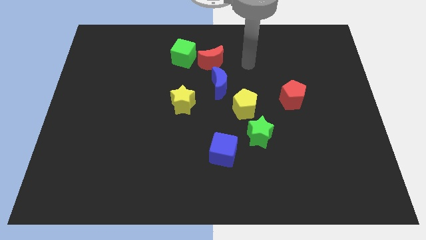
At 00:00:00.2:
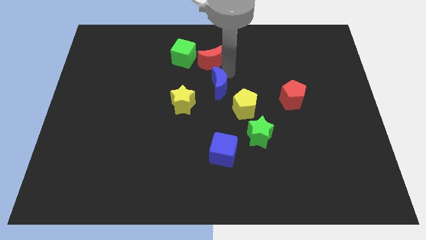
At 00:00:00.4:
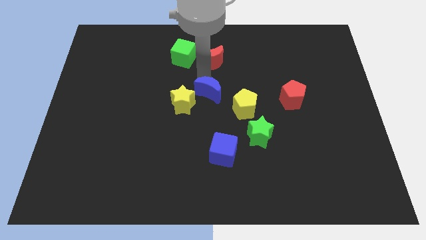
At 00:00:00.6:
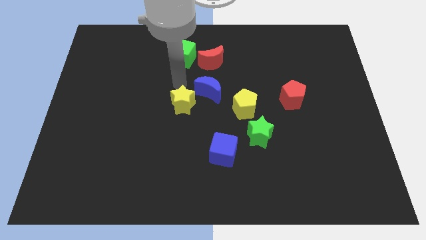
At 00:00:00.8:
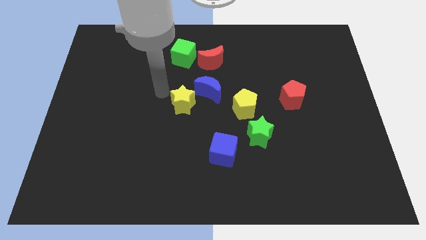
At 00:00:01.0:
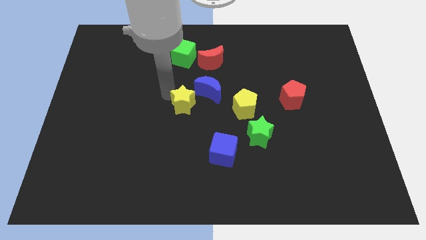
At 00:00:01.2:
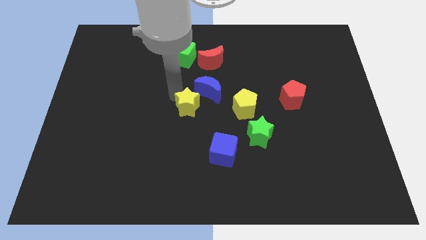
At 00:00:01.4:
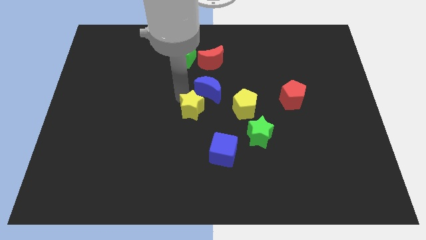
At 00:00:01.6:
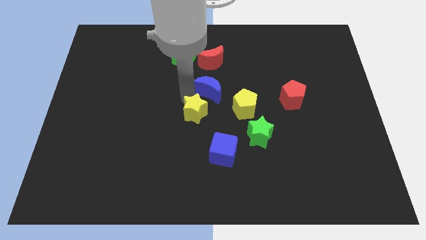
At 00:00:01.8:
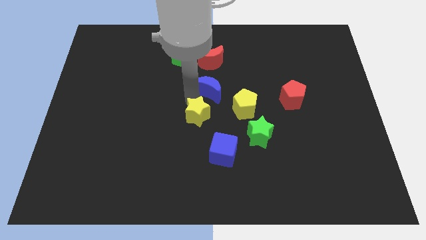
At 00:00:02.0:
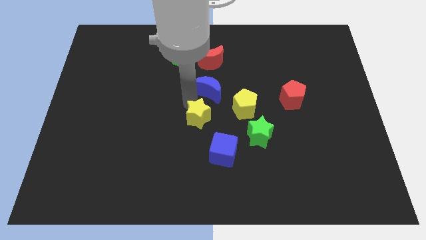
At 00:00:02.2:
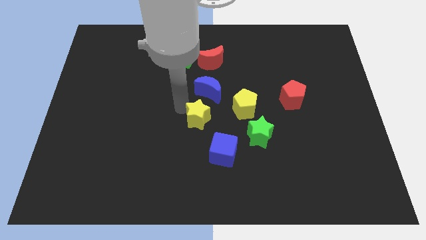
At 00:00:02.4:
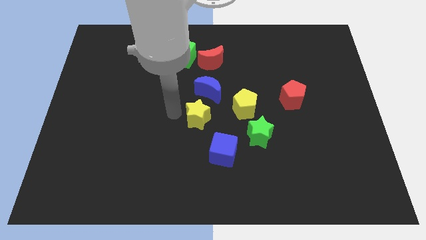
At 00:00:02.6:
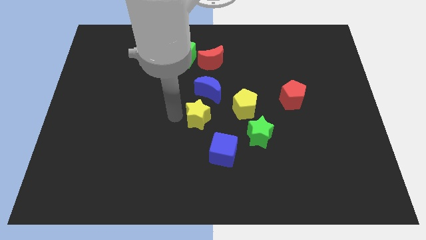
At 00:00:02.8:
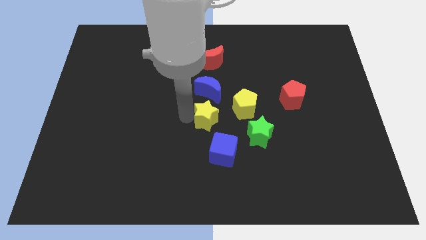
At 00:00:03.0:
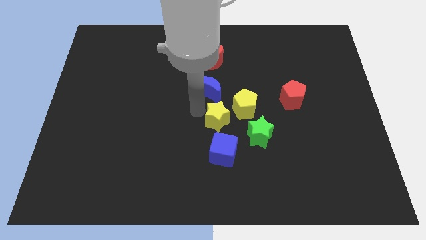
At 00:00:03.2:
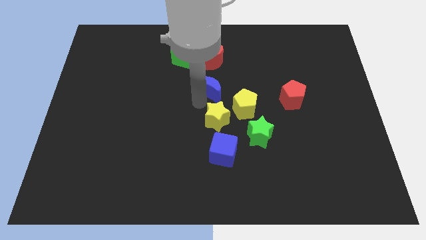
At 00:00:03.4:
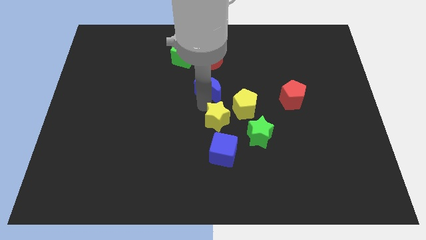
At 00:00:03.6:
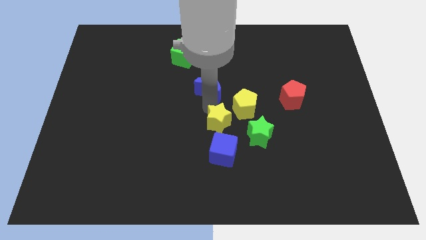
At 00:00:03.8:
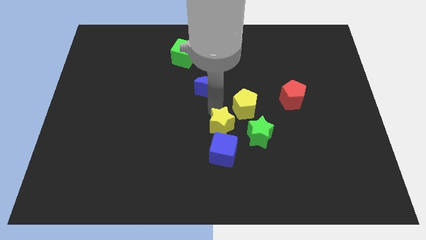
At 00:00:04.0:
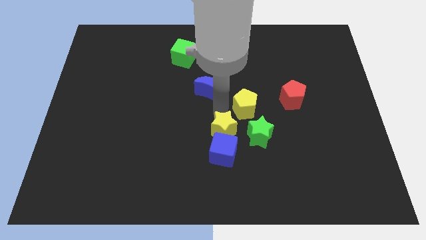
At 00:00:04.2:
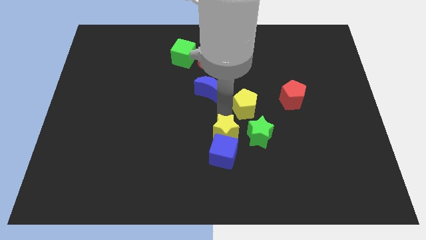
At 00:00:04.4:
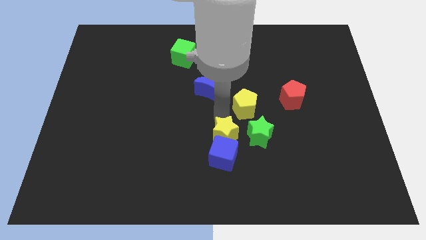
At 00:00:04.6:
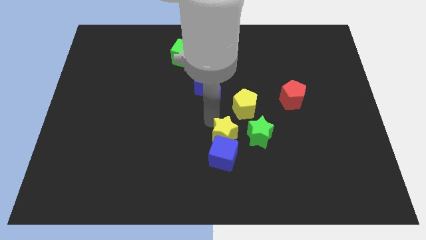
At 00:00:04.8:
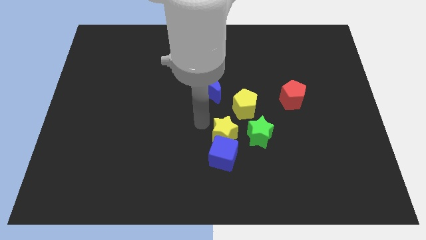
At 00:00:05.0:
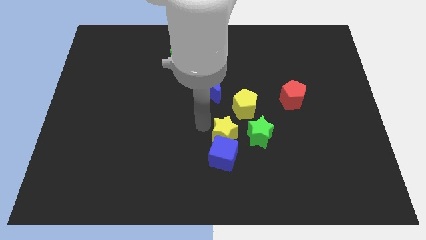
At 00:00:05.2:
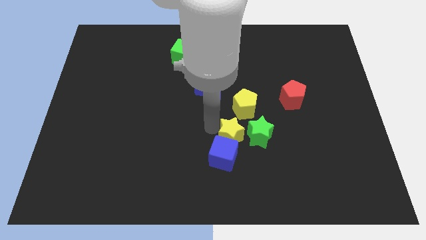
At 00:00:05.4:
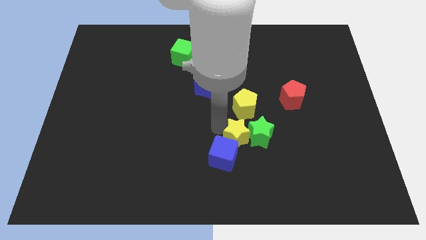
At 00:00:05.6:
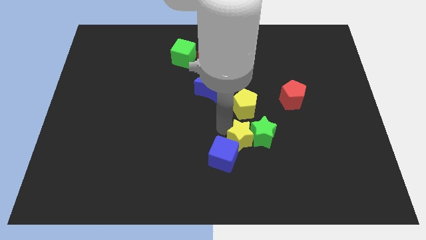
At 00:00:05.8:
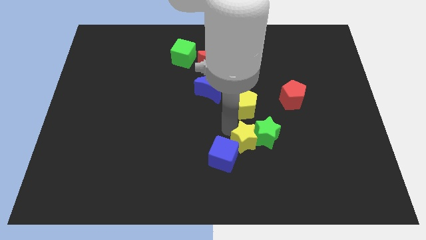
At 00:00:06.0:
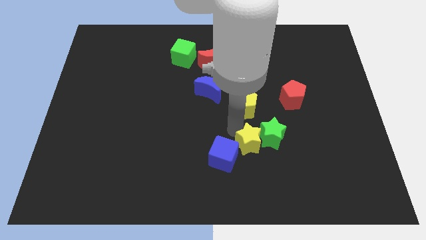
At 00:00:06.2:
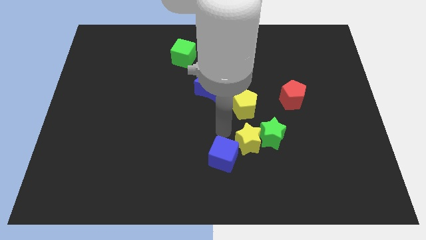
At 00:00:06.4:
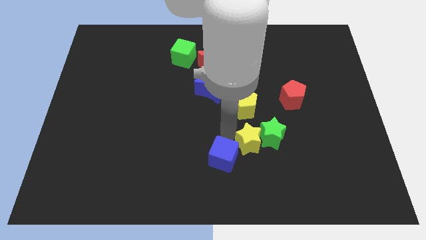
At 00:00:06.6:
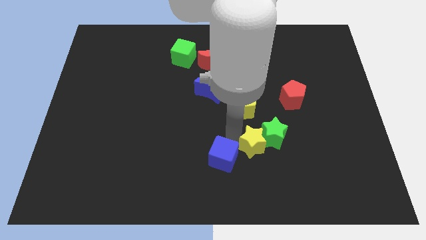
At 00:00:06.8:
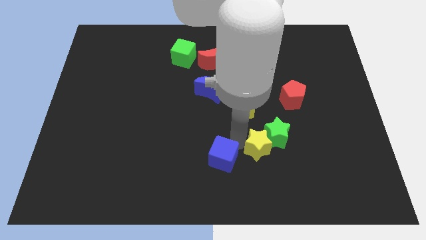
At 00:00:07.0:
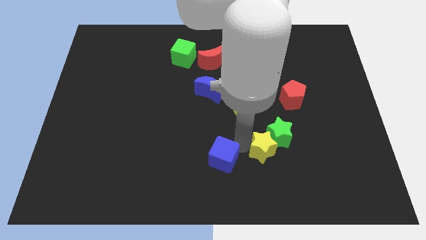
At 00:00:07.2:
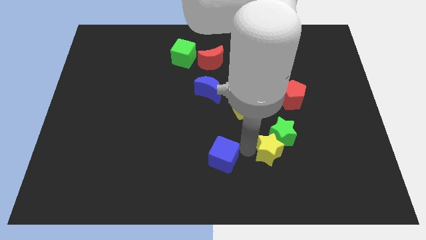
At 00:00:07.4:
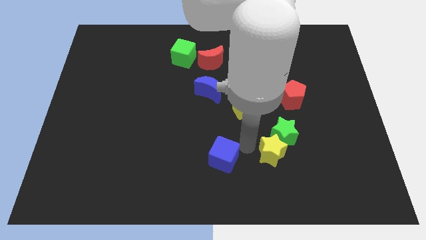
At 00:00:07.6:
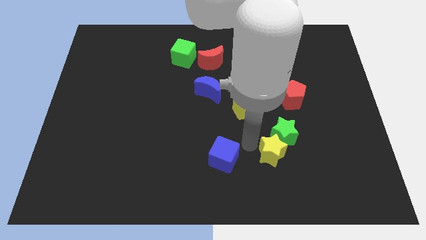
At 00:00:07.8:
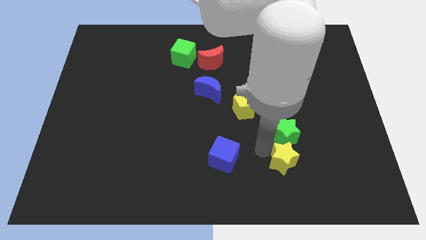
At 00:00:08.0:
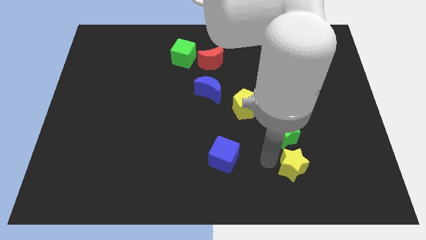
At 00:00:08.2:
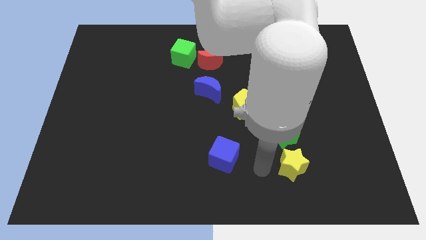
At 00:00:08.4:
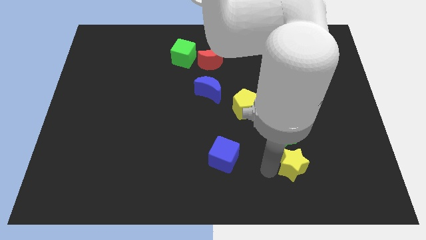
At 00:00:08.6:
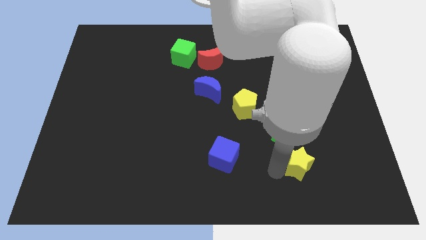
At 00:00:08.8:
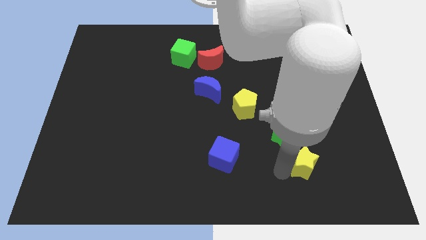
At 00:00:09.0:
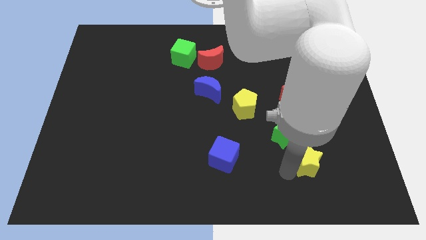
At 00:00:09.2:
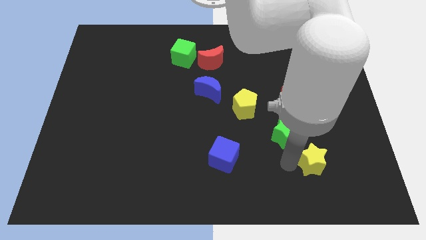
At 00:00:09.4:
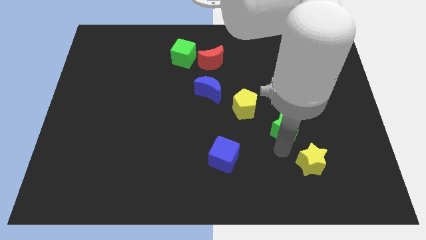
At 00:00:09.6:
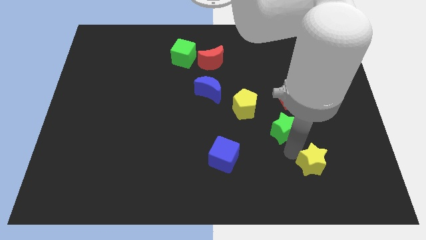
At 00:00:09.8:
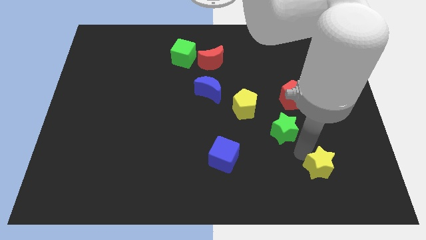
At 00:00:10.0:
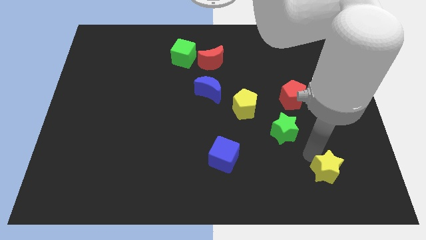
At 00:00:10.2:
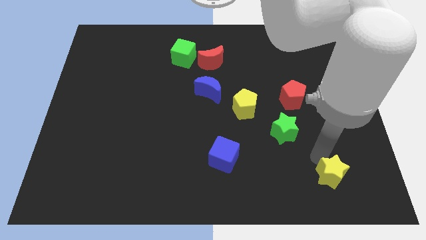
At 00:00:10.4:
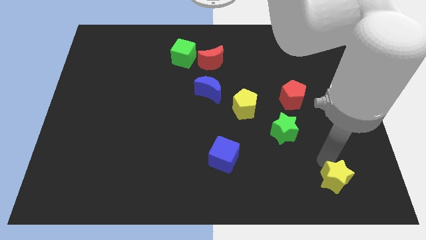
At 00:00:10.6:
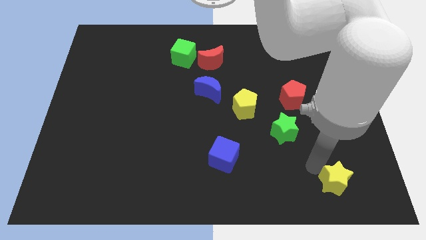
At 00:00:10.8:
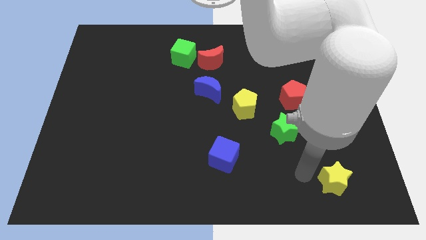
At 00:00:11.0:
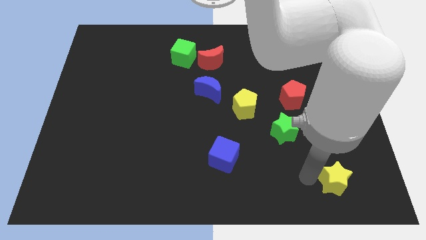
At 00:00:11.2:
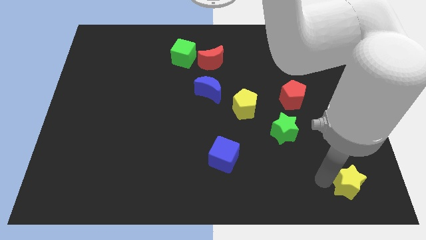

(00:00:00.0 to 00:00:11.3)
move the yellow star to the bottom right
